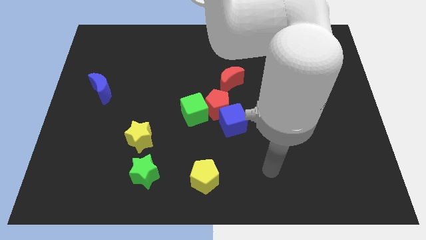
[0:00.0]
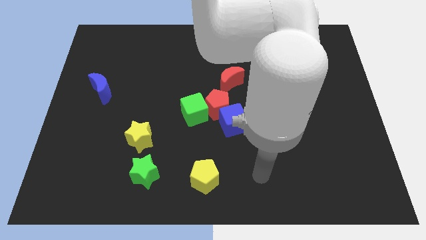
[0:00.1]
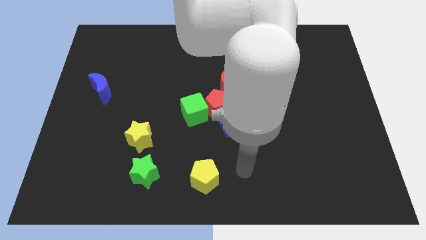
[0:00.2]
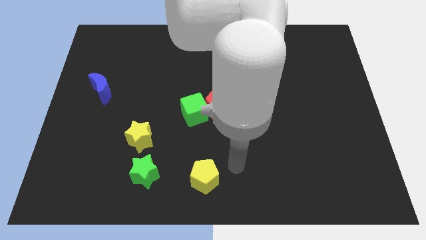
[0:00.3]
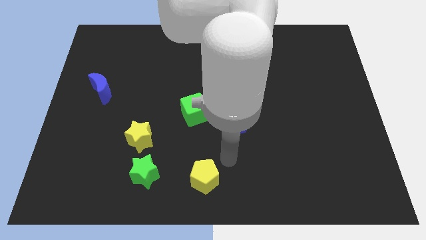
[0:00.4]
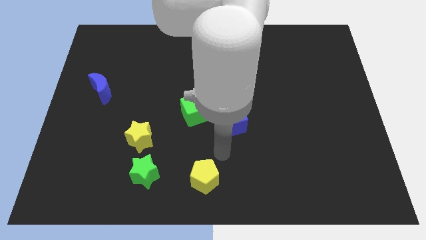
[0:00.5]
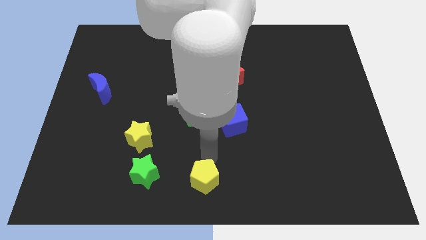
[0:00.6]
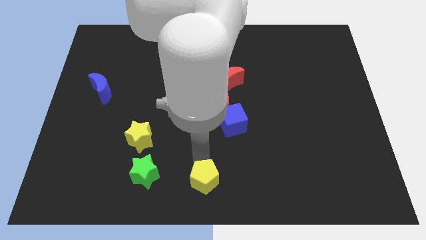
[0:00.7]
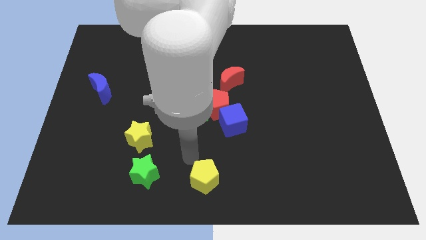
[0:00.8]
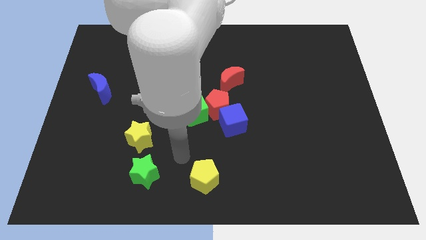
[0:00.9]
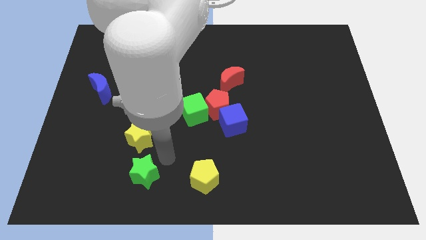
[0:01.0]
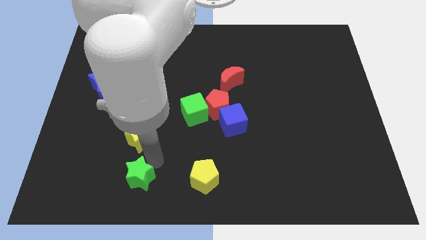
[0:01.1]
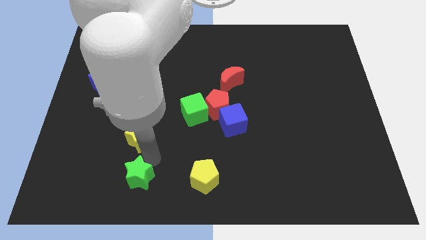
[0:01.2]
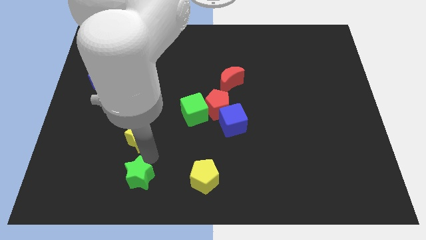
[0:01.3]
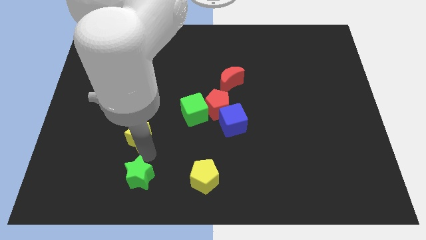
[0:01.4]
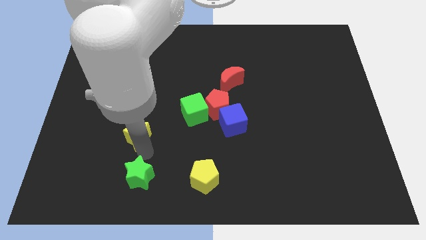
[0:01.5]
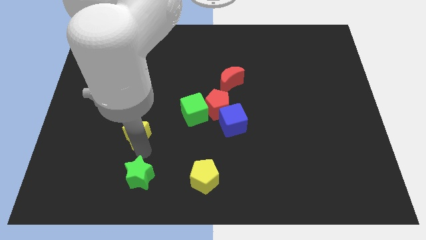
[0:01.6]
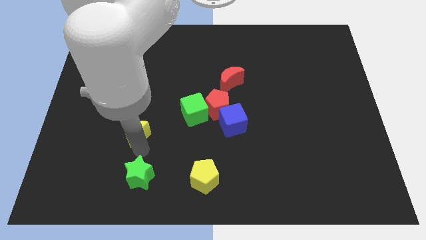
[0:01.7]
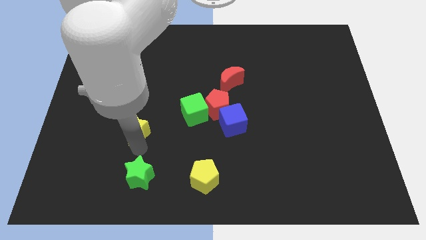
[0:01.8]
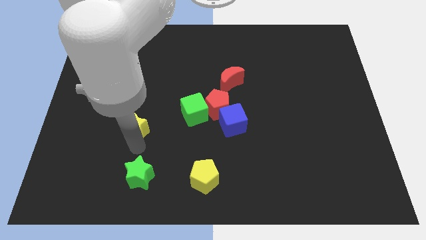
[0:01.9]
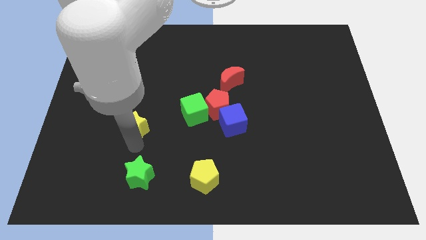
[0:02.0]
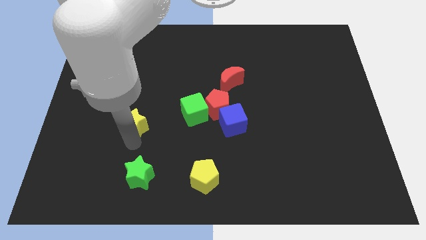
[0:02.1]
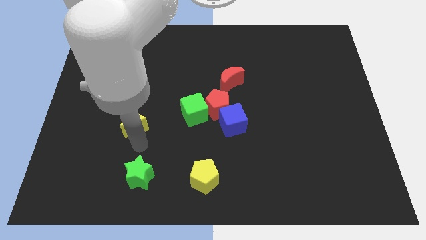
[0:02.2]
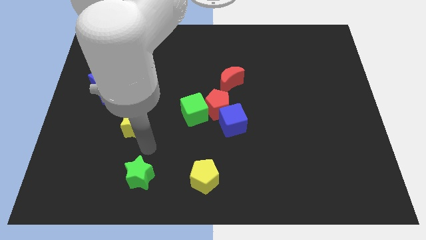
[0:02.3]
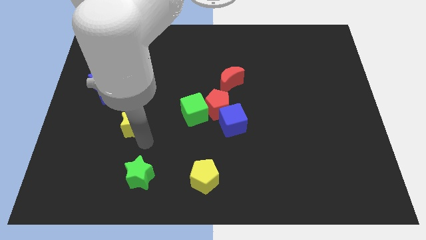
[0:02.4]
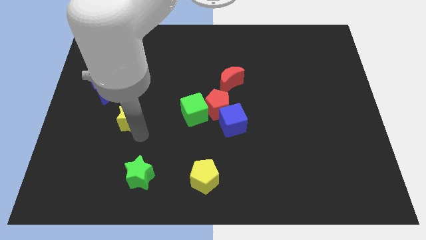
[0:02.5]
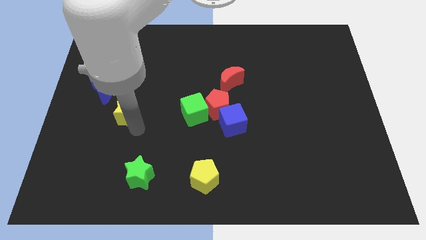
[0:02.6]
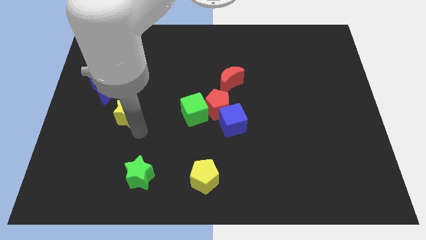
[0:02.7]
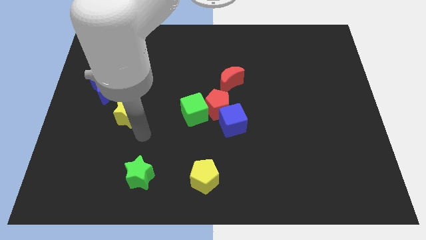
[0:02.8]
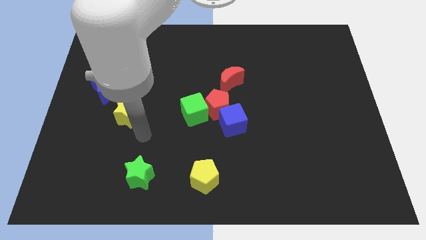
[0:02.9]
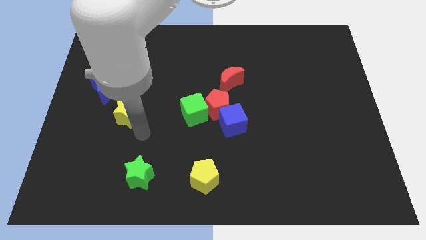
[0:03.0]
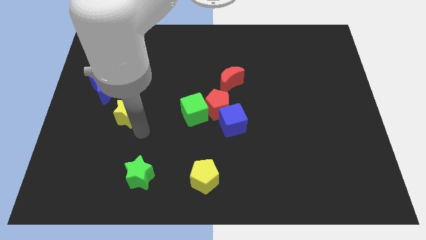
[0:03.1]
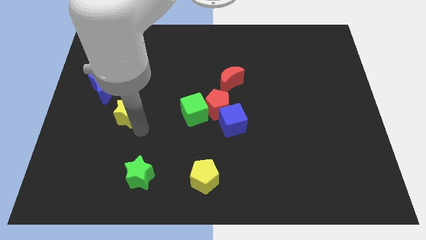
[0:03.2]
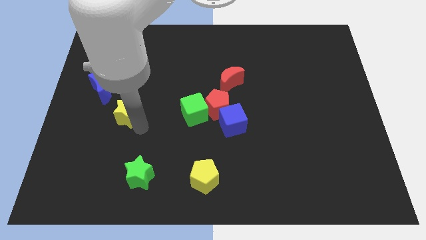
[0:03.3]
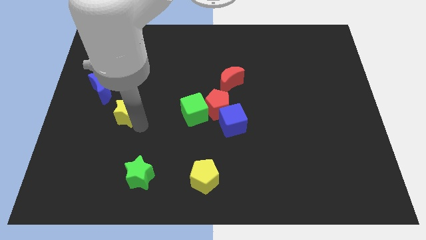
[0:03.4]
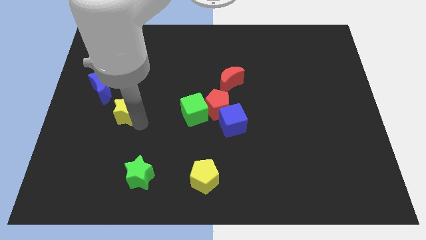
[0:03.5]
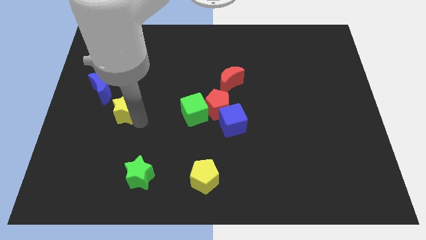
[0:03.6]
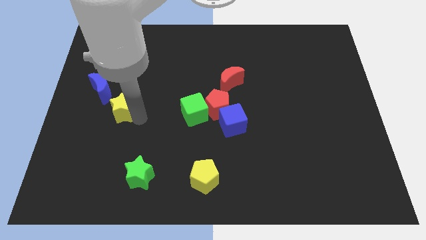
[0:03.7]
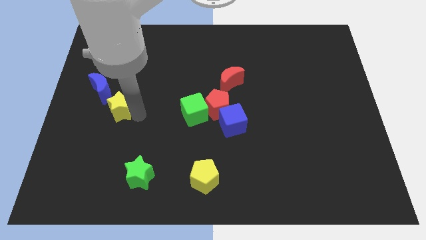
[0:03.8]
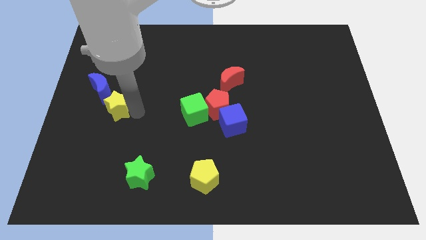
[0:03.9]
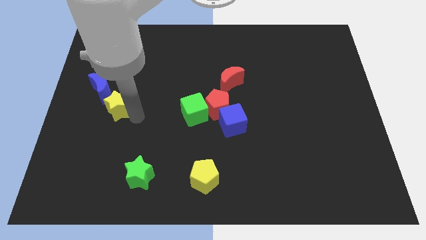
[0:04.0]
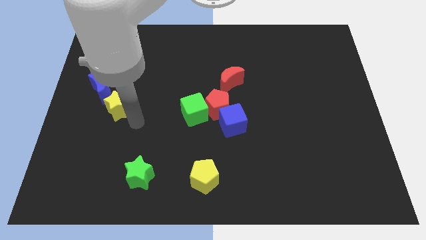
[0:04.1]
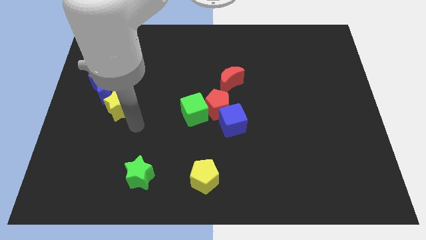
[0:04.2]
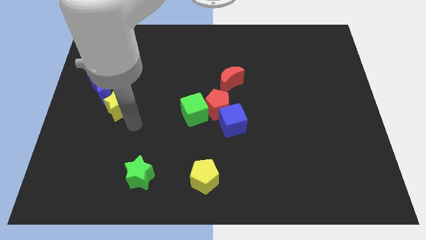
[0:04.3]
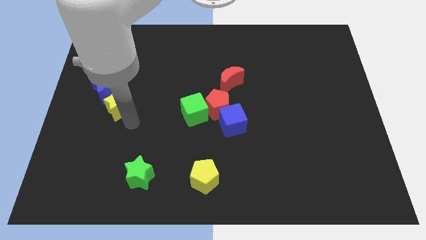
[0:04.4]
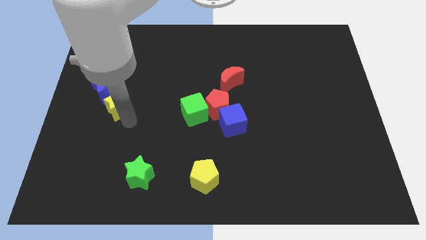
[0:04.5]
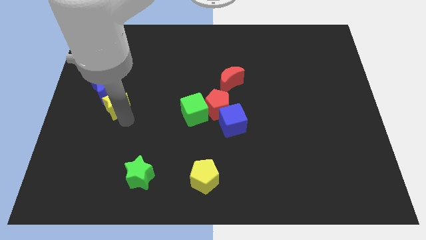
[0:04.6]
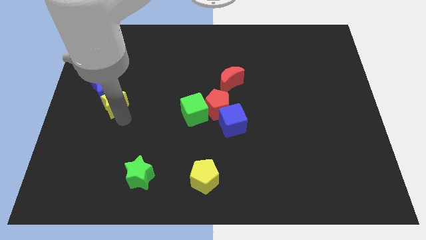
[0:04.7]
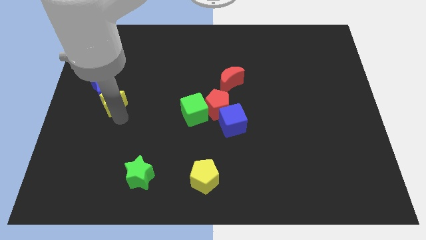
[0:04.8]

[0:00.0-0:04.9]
put the yellow star to the blue moon

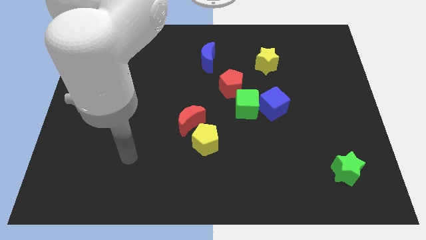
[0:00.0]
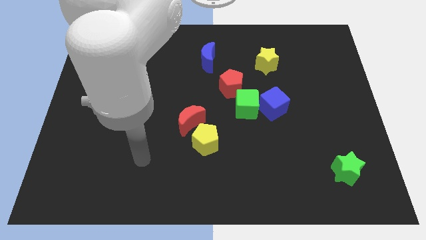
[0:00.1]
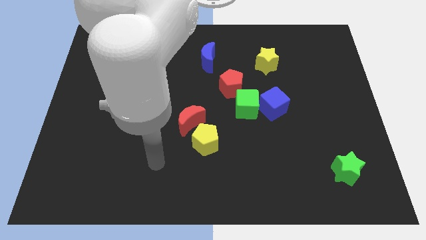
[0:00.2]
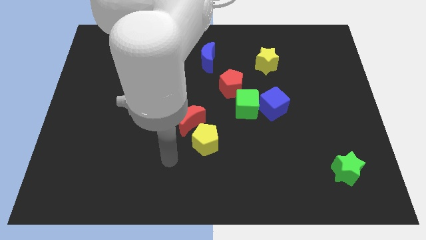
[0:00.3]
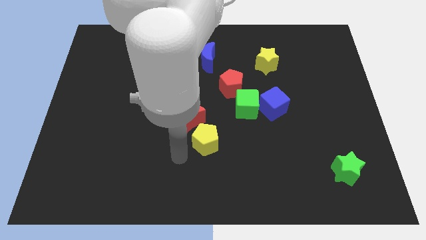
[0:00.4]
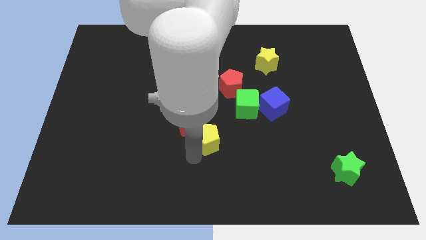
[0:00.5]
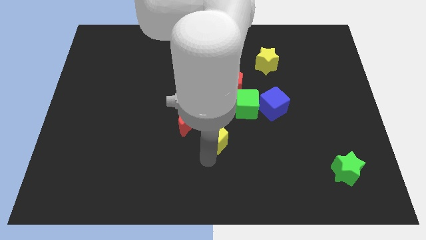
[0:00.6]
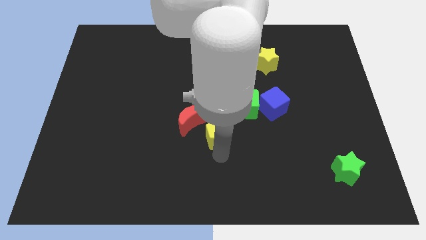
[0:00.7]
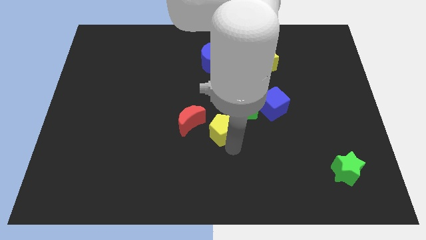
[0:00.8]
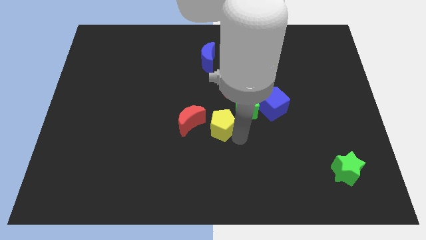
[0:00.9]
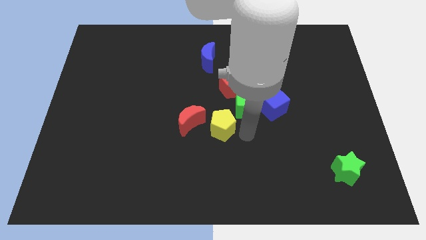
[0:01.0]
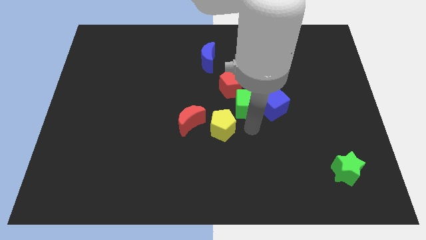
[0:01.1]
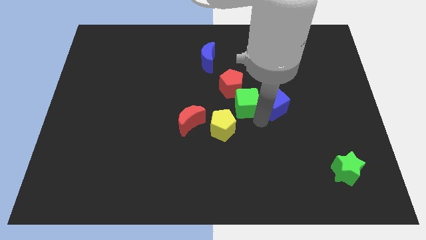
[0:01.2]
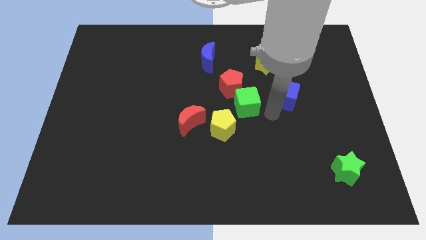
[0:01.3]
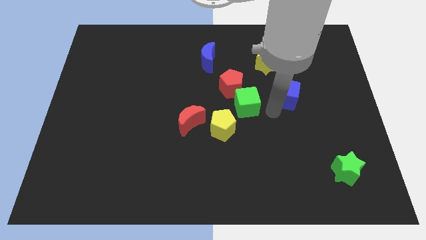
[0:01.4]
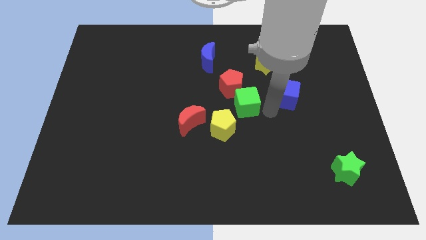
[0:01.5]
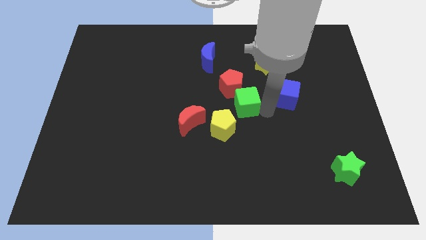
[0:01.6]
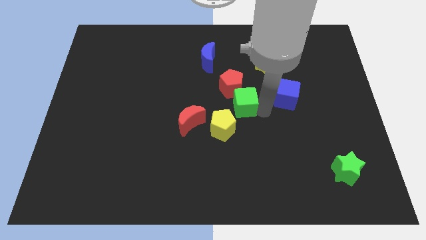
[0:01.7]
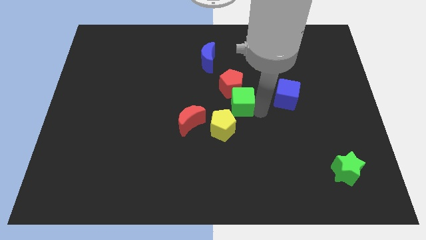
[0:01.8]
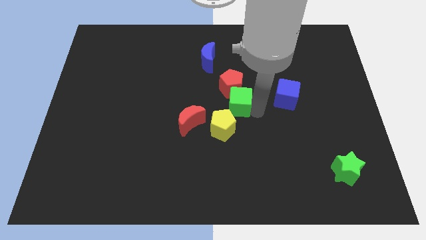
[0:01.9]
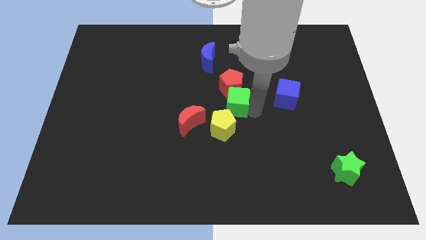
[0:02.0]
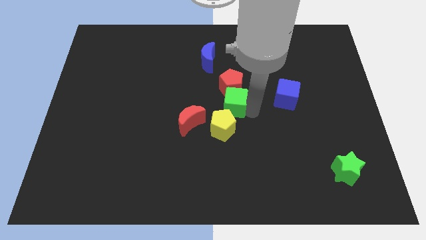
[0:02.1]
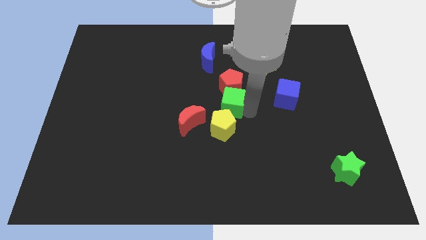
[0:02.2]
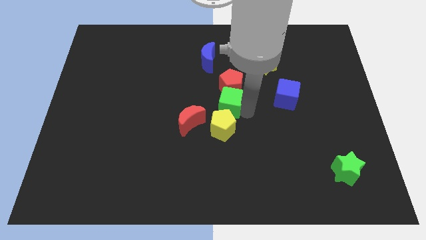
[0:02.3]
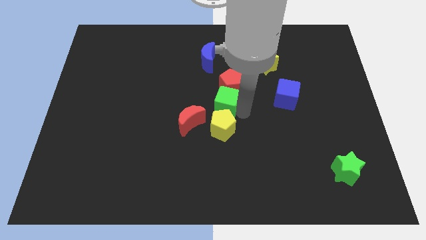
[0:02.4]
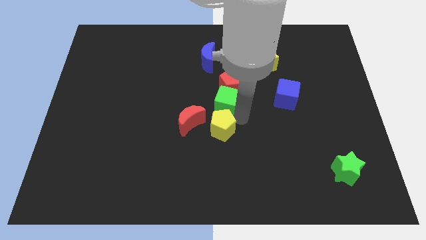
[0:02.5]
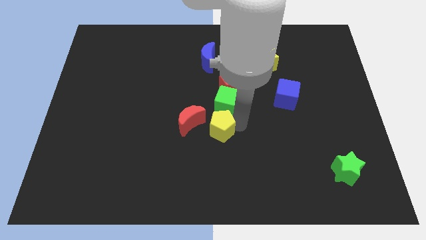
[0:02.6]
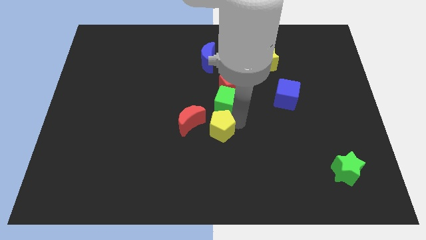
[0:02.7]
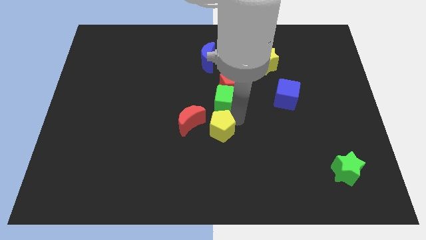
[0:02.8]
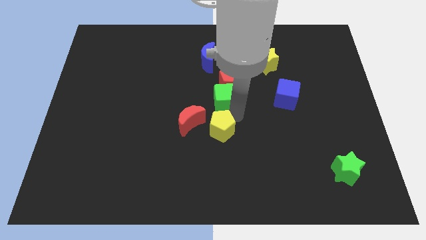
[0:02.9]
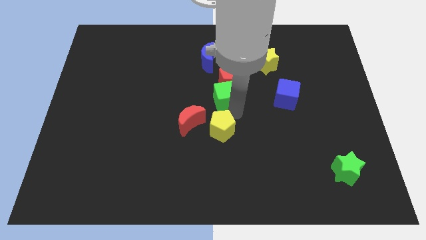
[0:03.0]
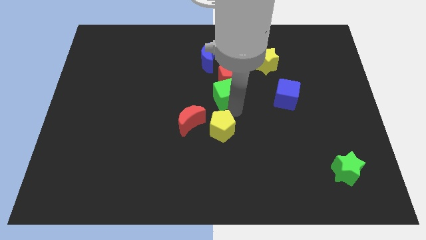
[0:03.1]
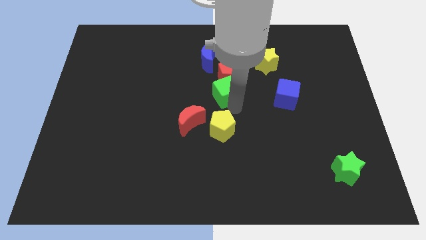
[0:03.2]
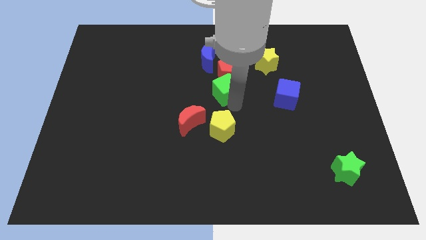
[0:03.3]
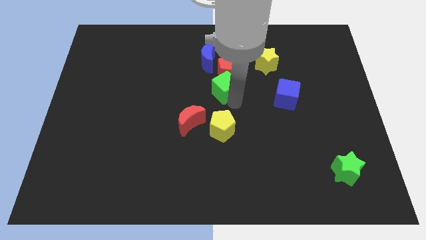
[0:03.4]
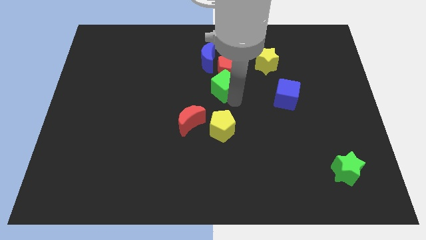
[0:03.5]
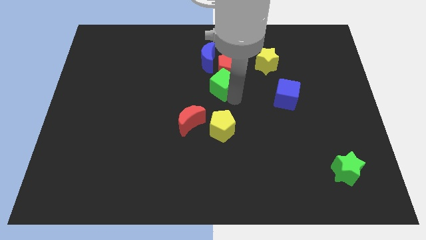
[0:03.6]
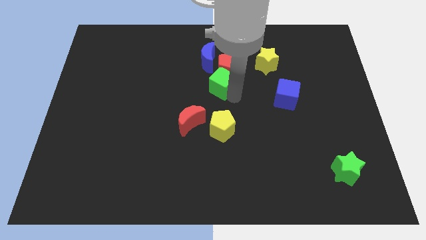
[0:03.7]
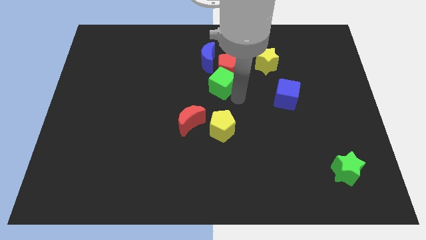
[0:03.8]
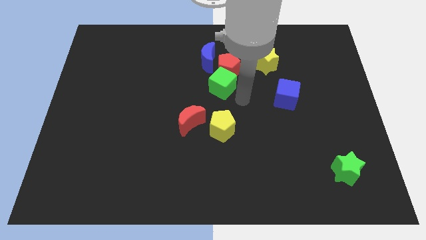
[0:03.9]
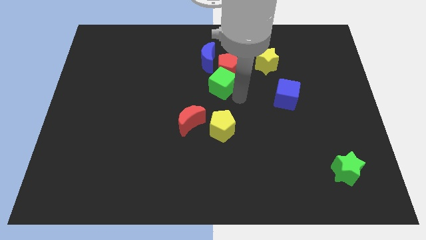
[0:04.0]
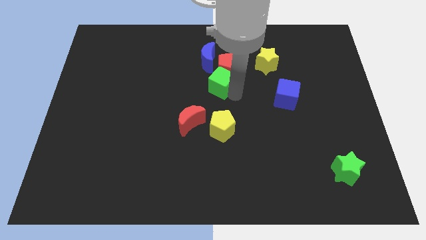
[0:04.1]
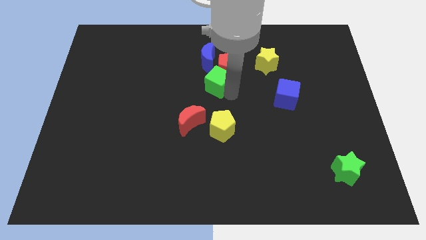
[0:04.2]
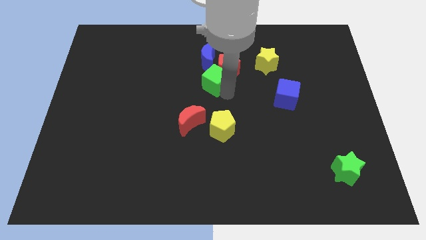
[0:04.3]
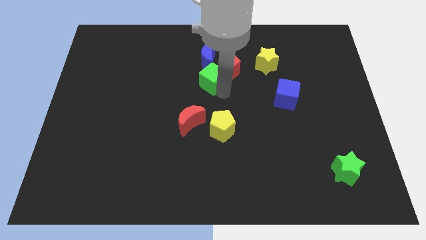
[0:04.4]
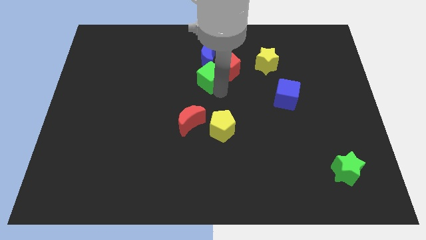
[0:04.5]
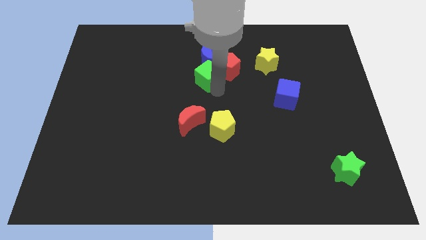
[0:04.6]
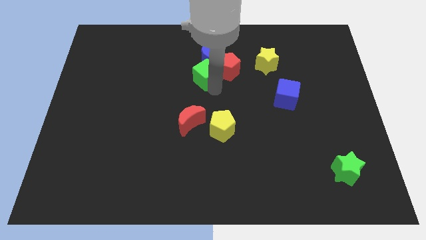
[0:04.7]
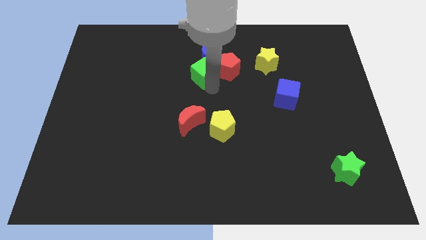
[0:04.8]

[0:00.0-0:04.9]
slide the green cube close to the blue moon
